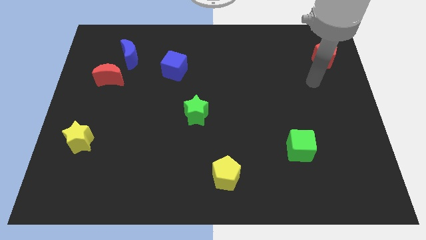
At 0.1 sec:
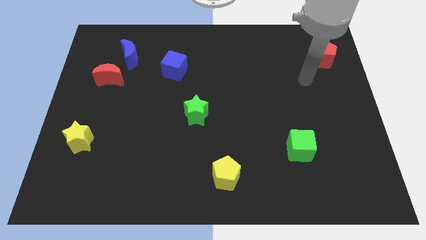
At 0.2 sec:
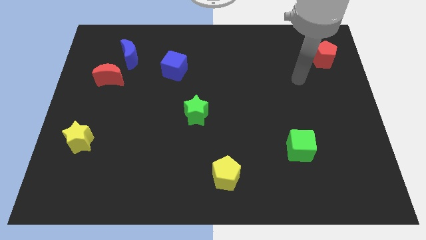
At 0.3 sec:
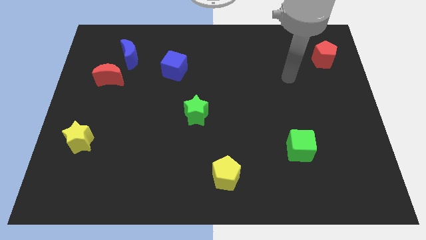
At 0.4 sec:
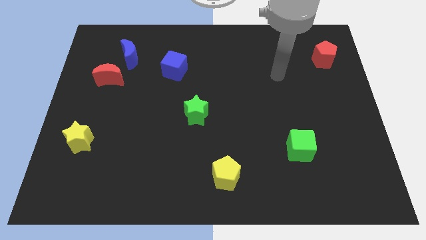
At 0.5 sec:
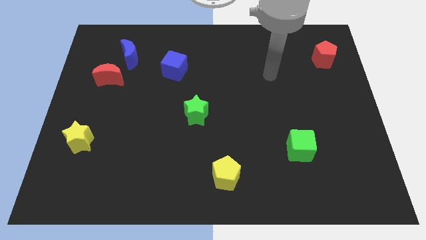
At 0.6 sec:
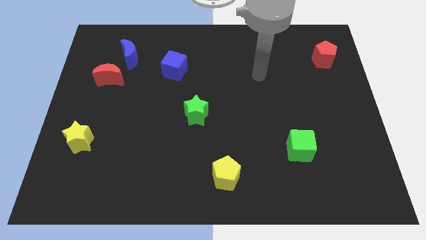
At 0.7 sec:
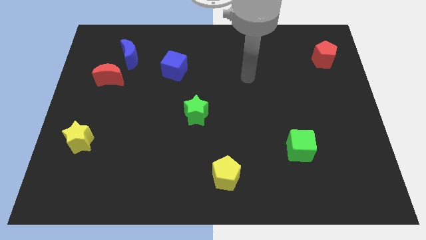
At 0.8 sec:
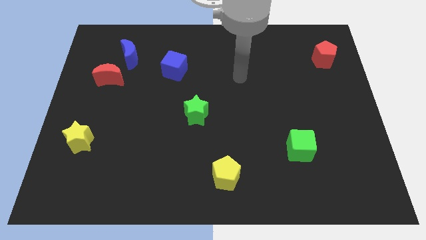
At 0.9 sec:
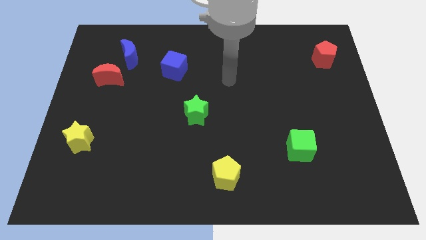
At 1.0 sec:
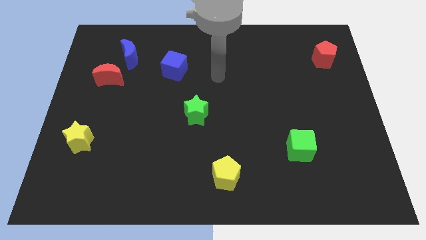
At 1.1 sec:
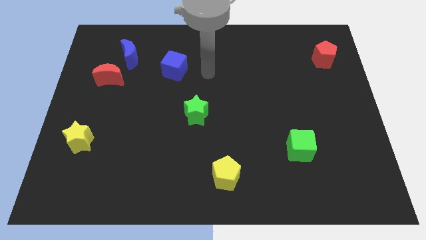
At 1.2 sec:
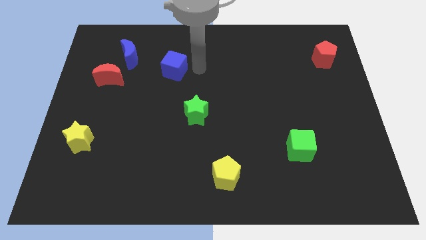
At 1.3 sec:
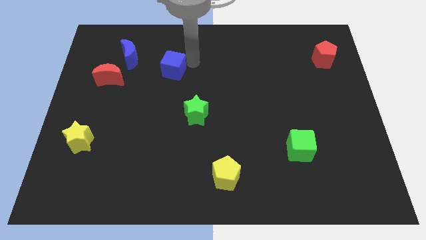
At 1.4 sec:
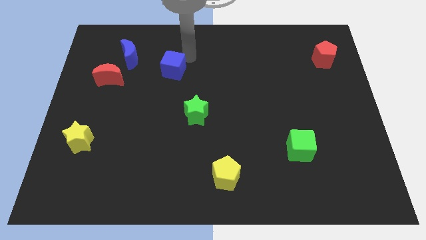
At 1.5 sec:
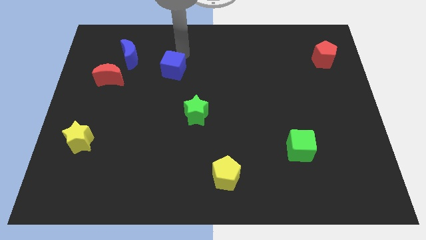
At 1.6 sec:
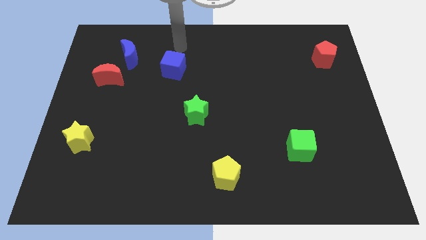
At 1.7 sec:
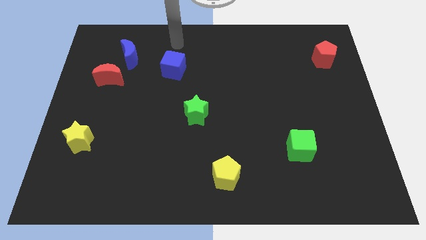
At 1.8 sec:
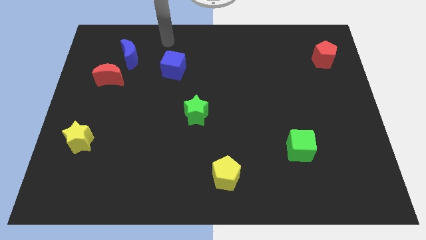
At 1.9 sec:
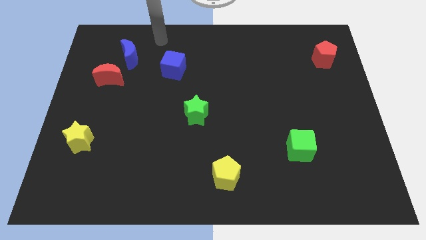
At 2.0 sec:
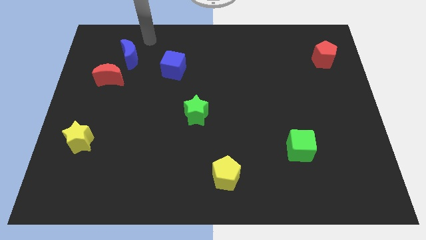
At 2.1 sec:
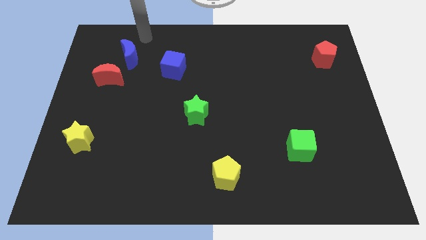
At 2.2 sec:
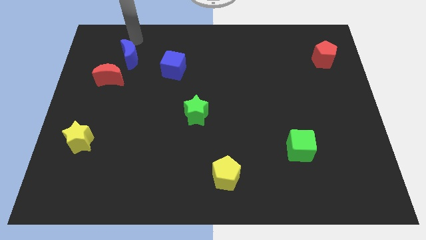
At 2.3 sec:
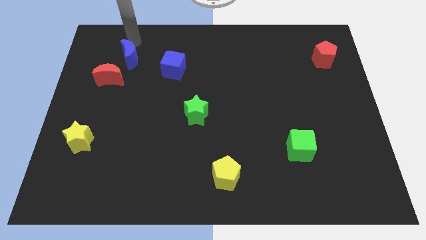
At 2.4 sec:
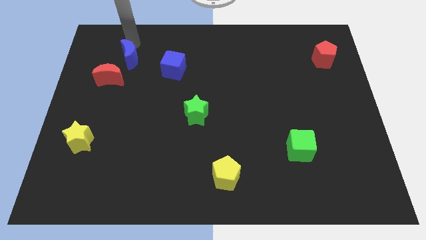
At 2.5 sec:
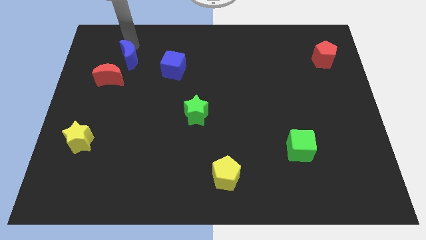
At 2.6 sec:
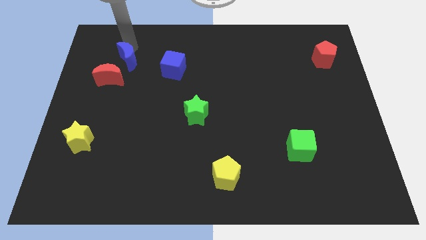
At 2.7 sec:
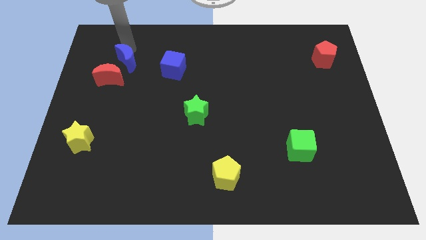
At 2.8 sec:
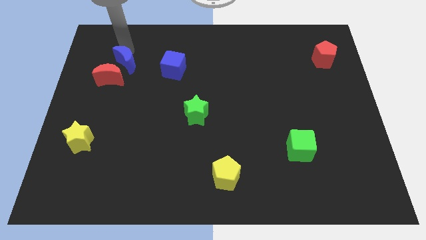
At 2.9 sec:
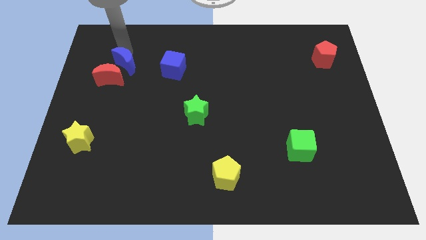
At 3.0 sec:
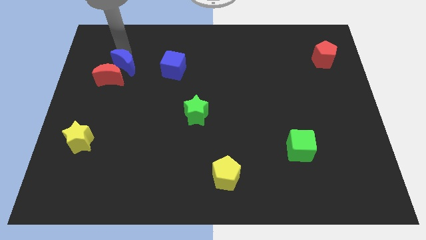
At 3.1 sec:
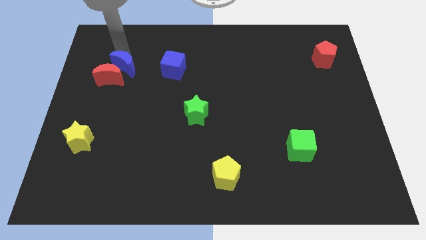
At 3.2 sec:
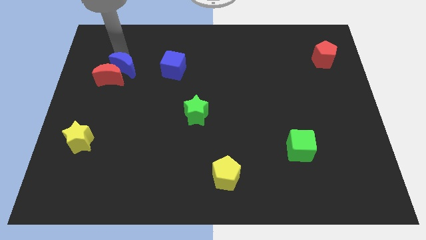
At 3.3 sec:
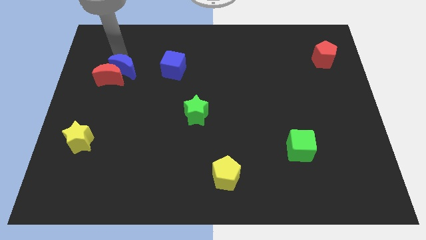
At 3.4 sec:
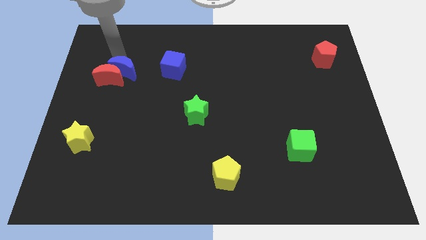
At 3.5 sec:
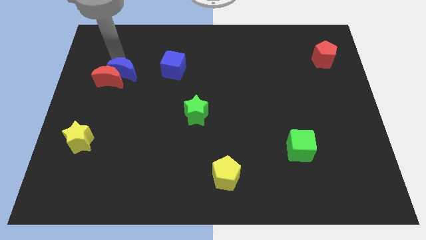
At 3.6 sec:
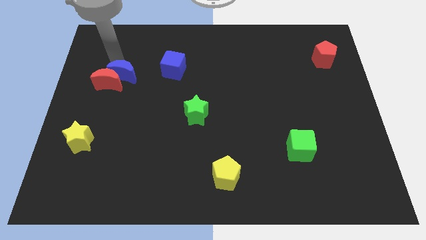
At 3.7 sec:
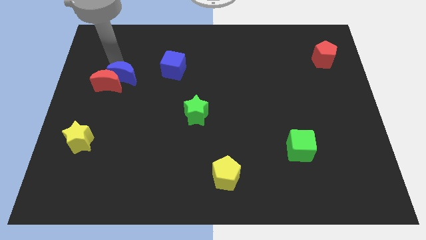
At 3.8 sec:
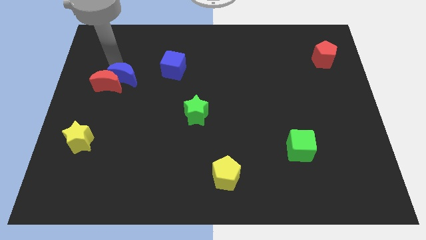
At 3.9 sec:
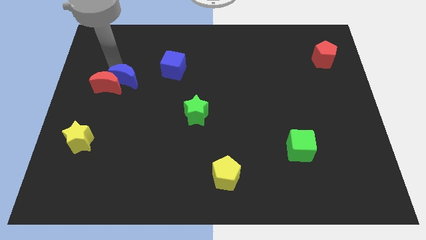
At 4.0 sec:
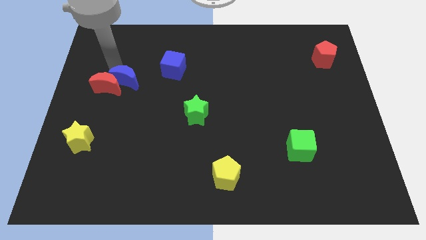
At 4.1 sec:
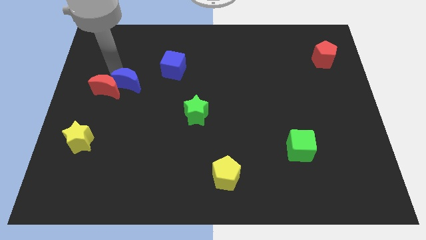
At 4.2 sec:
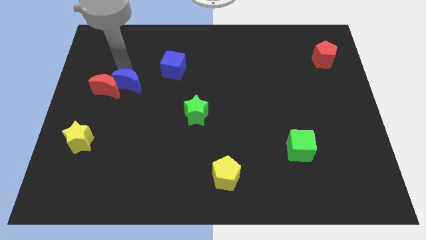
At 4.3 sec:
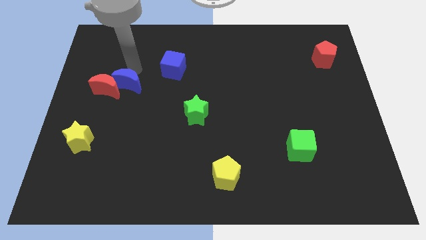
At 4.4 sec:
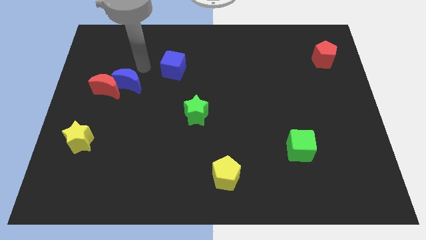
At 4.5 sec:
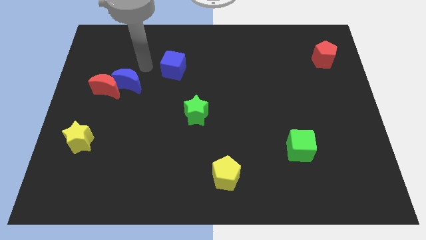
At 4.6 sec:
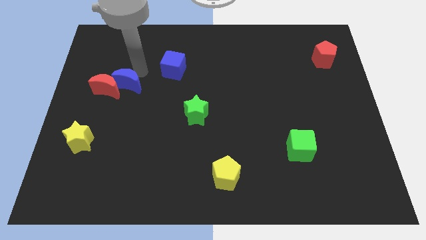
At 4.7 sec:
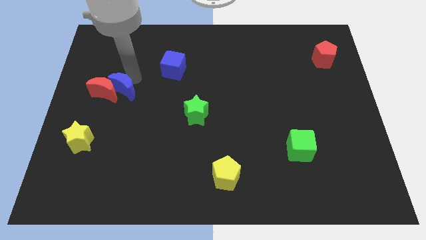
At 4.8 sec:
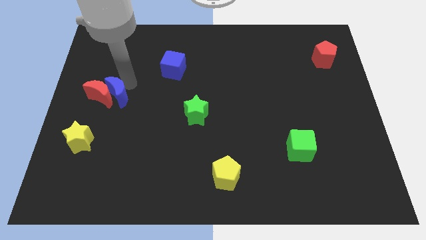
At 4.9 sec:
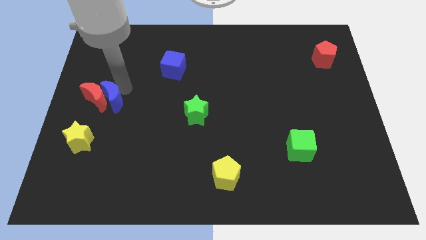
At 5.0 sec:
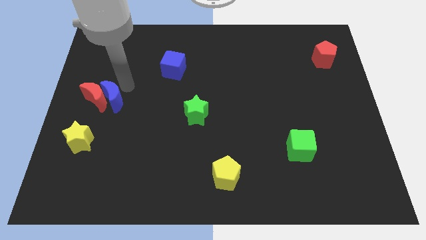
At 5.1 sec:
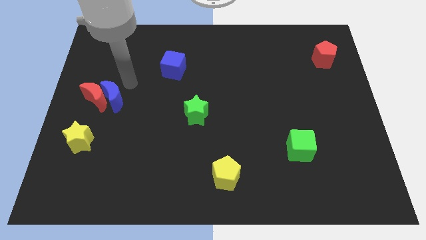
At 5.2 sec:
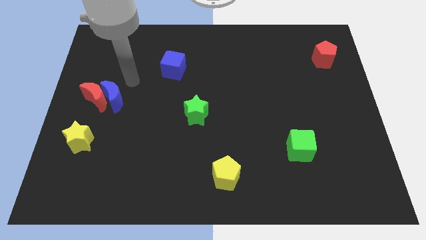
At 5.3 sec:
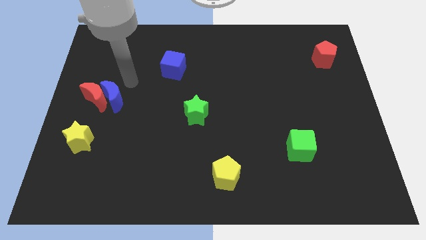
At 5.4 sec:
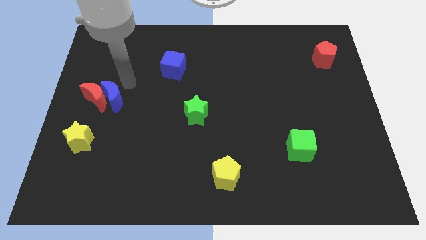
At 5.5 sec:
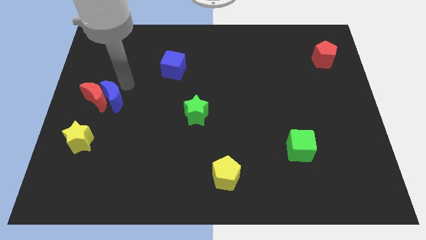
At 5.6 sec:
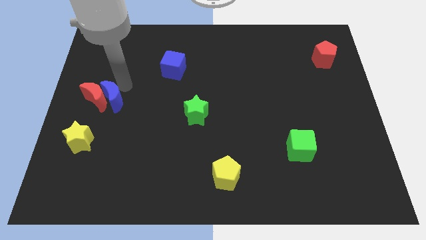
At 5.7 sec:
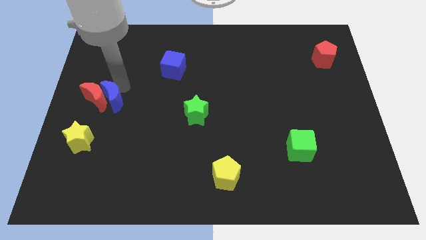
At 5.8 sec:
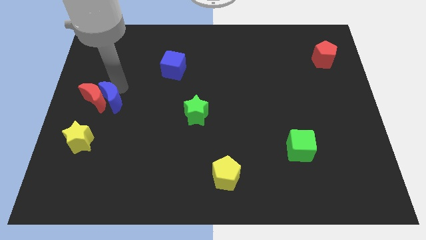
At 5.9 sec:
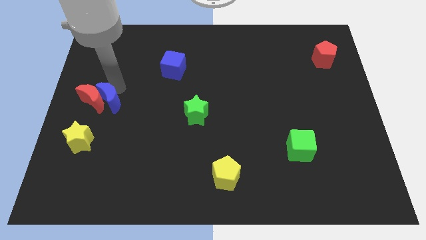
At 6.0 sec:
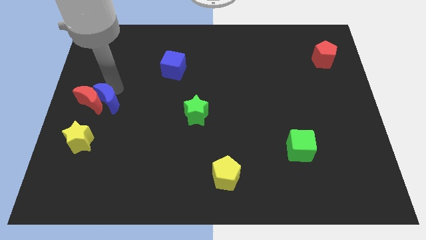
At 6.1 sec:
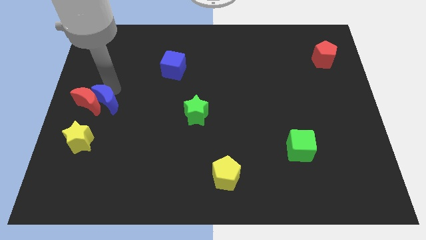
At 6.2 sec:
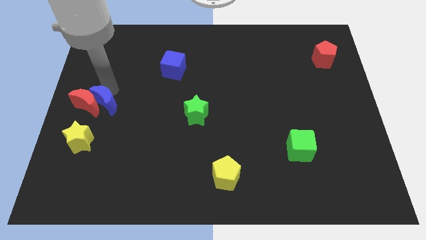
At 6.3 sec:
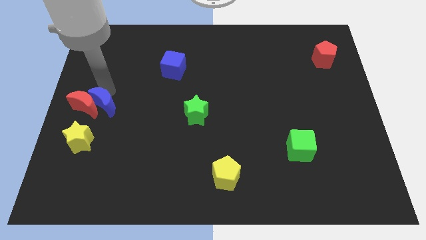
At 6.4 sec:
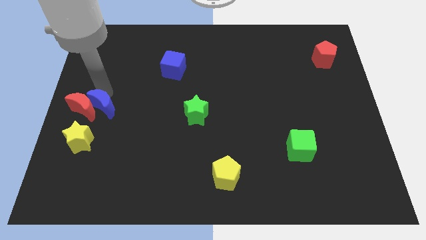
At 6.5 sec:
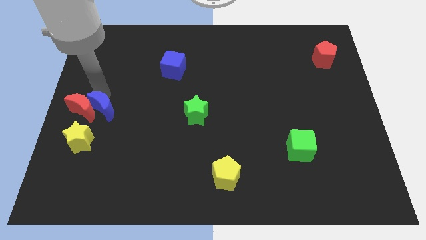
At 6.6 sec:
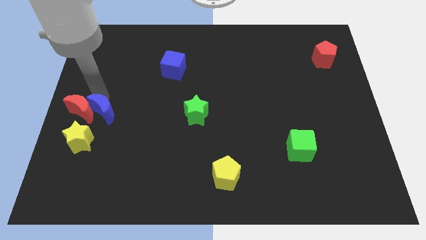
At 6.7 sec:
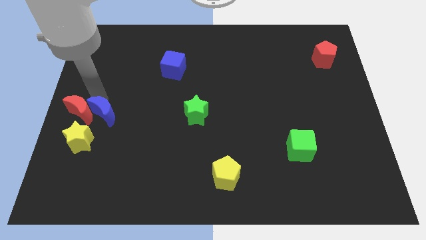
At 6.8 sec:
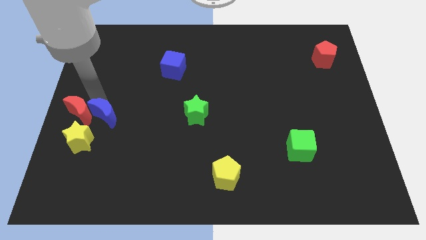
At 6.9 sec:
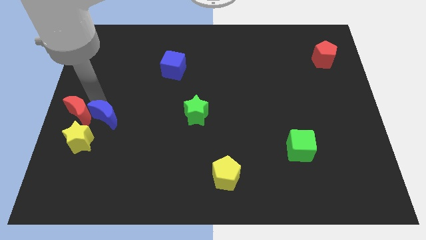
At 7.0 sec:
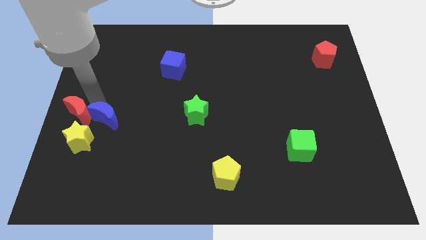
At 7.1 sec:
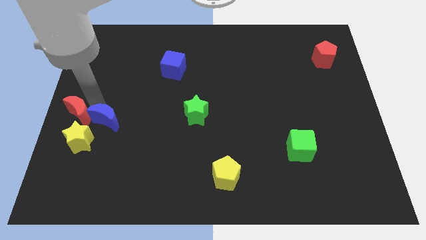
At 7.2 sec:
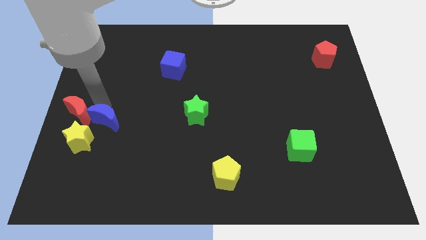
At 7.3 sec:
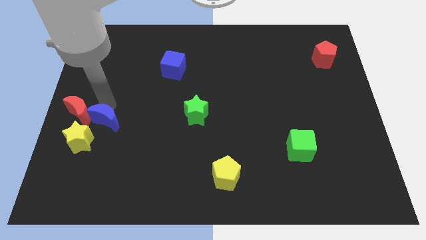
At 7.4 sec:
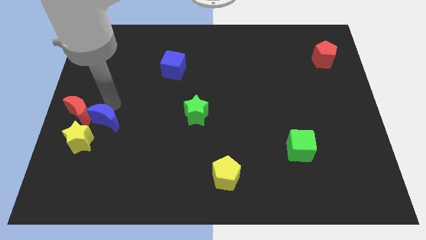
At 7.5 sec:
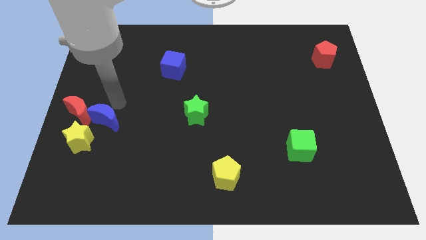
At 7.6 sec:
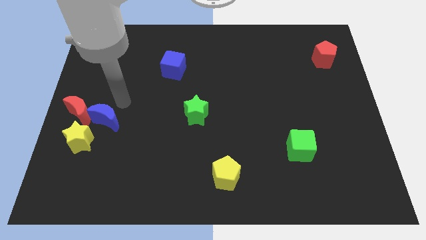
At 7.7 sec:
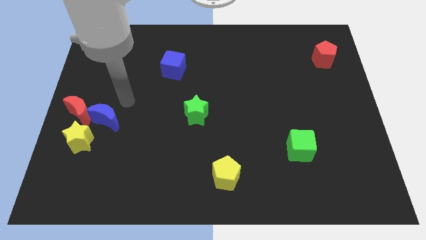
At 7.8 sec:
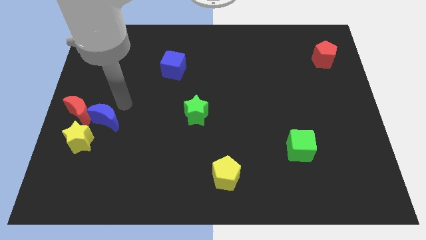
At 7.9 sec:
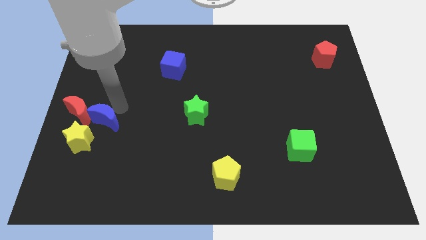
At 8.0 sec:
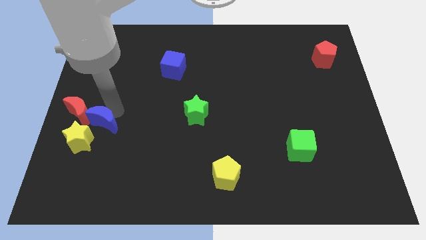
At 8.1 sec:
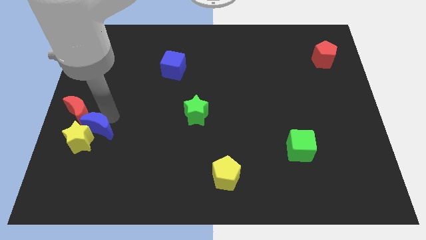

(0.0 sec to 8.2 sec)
slide the blue moon close to the yellow star
